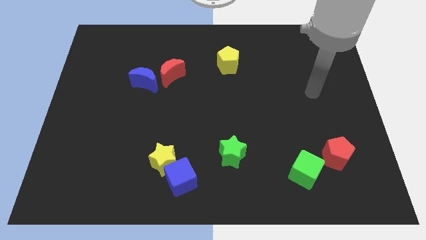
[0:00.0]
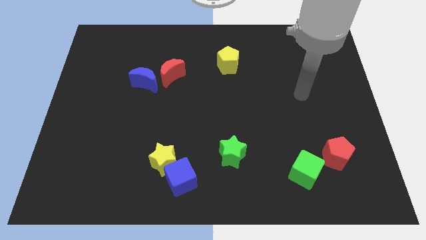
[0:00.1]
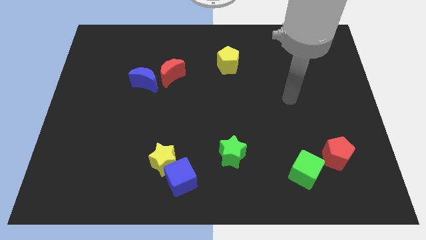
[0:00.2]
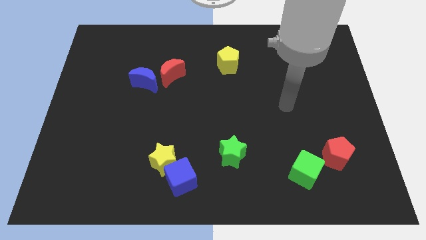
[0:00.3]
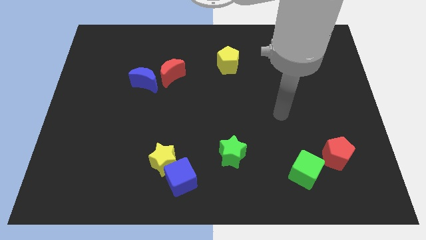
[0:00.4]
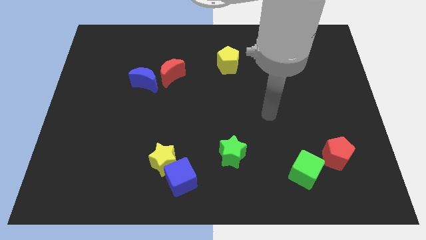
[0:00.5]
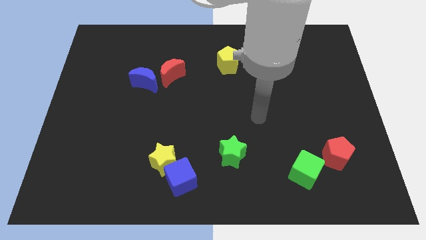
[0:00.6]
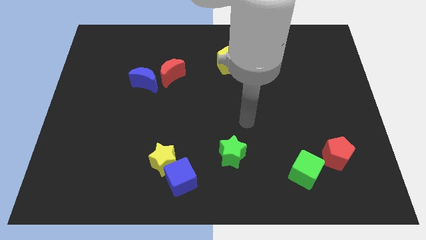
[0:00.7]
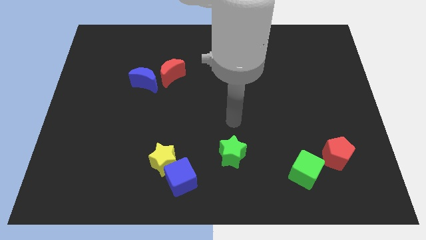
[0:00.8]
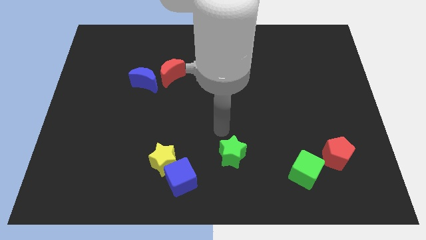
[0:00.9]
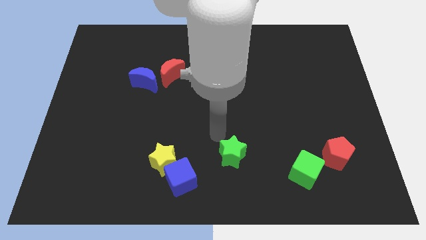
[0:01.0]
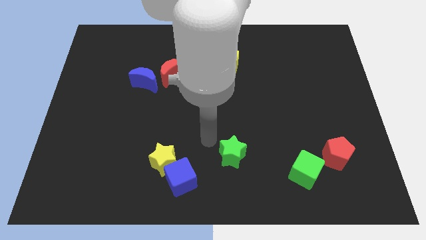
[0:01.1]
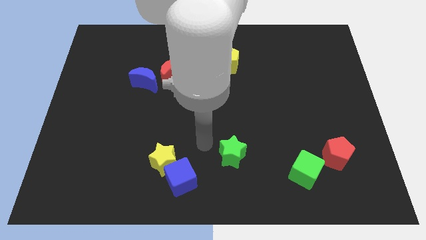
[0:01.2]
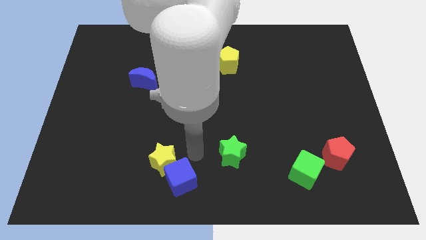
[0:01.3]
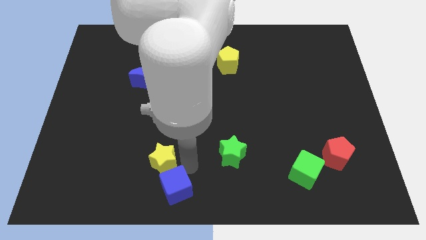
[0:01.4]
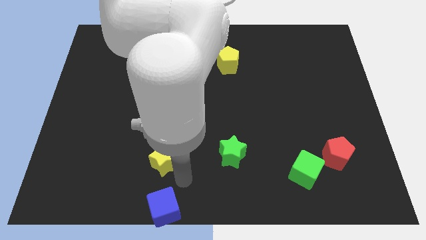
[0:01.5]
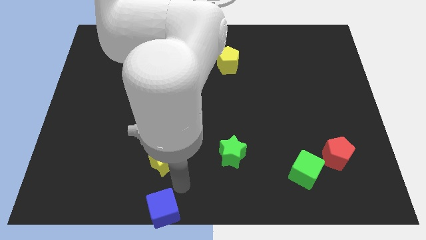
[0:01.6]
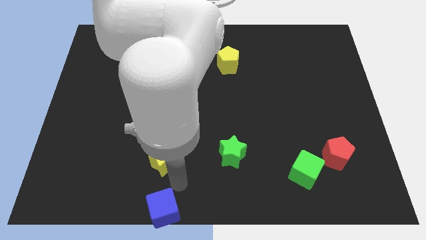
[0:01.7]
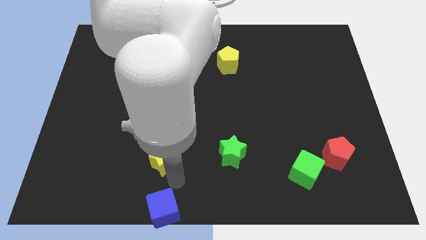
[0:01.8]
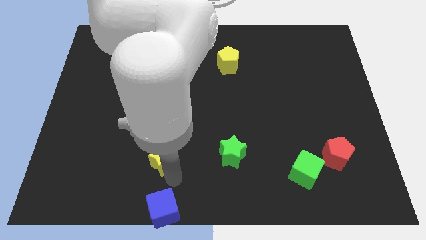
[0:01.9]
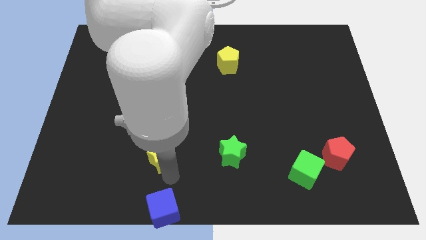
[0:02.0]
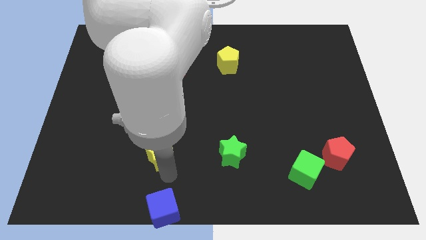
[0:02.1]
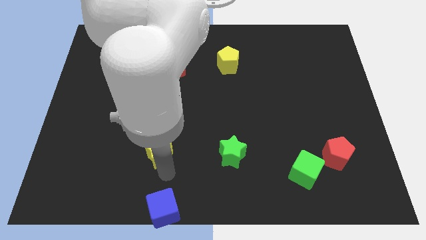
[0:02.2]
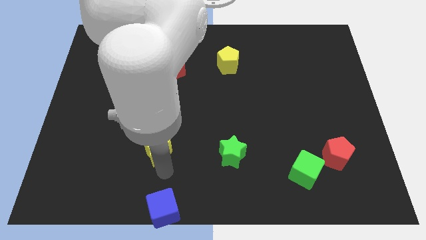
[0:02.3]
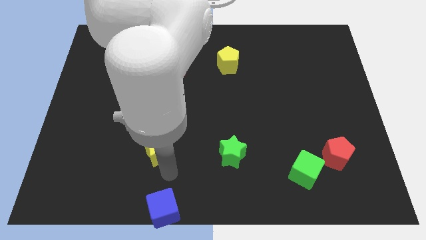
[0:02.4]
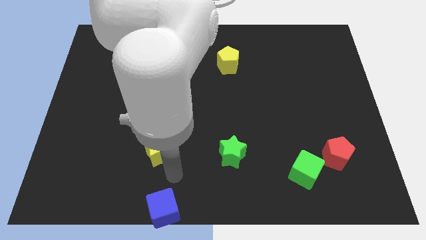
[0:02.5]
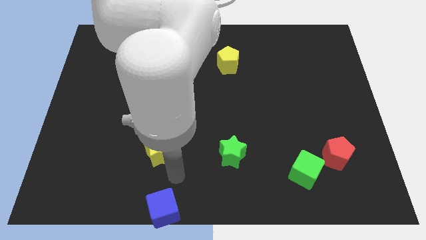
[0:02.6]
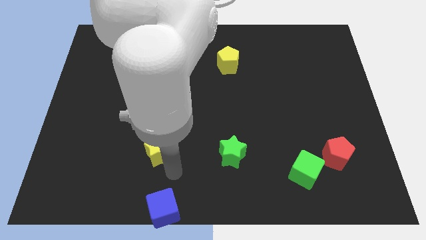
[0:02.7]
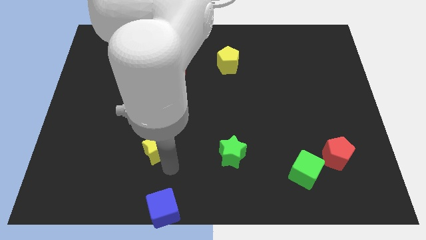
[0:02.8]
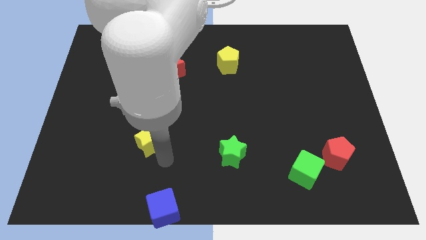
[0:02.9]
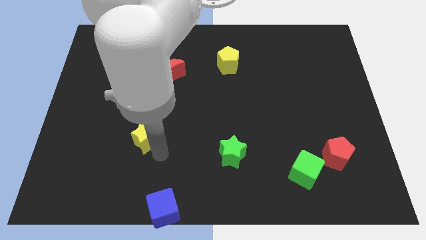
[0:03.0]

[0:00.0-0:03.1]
push the yellow star diagonally upwards and left a bit

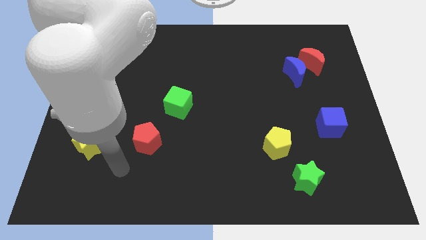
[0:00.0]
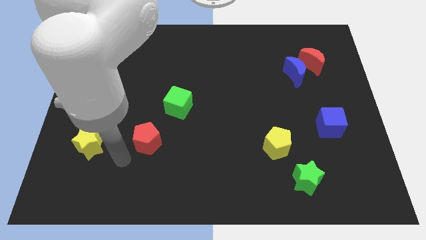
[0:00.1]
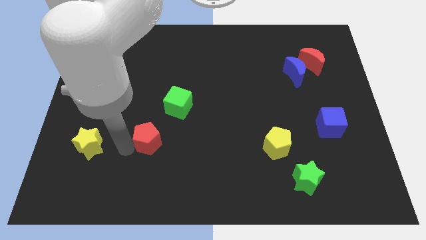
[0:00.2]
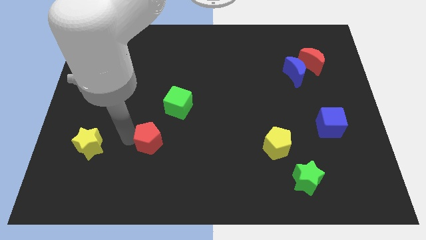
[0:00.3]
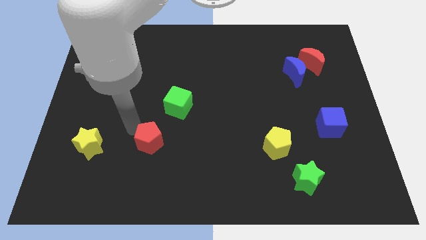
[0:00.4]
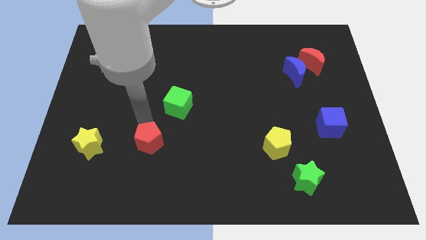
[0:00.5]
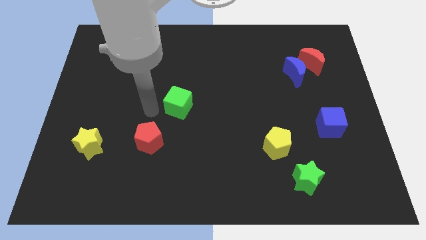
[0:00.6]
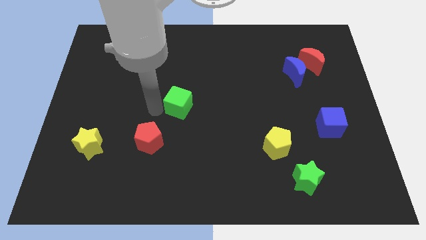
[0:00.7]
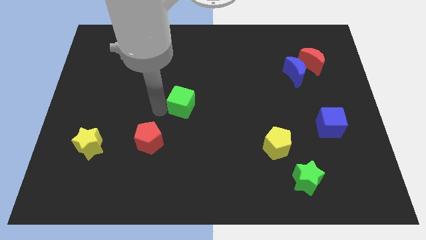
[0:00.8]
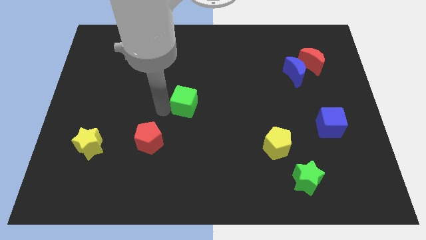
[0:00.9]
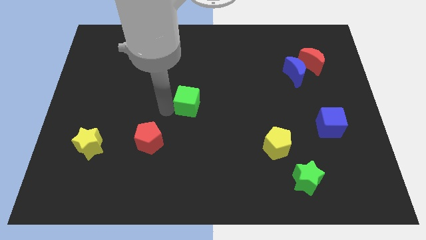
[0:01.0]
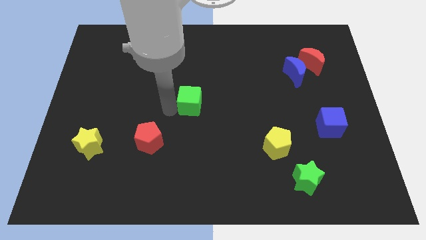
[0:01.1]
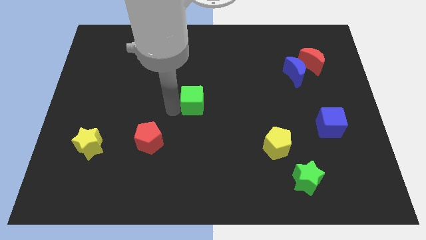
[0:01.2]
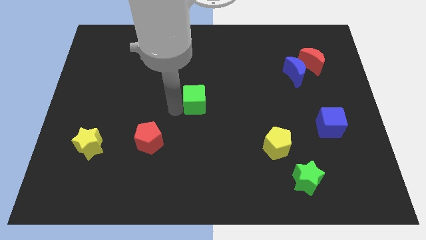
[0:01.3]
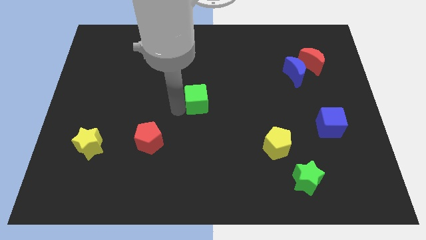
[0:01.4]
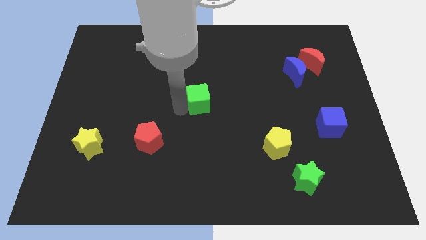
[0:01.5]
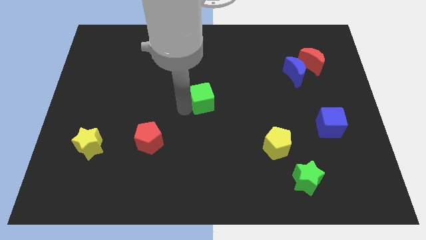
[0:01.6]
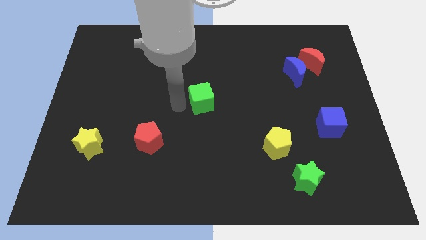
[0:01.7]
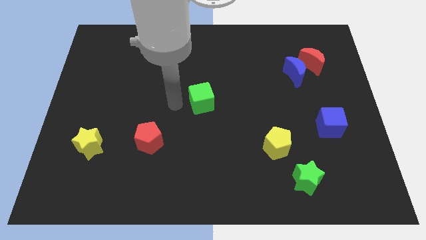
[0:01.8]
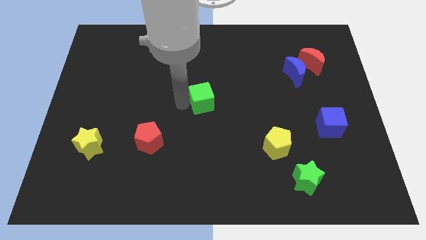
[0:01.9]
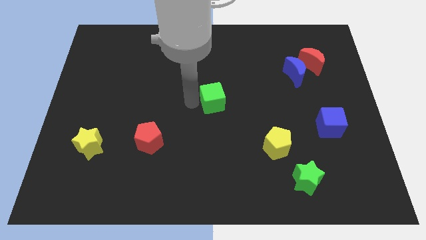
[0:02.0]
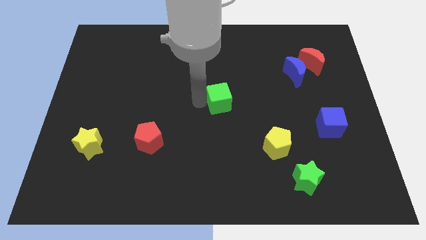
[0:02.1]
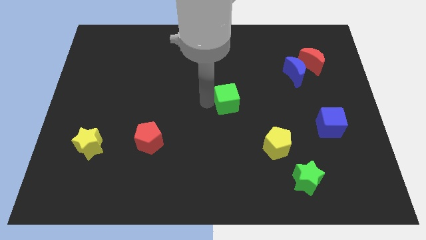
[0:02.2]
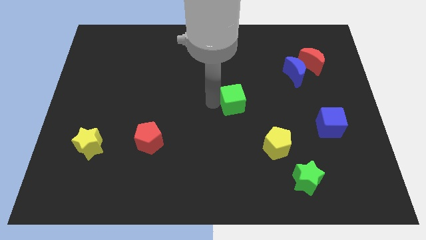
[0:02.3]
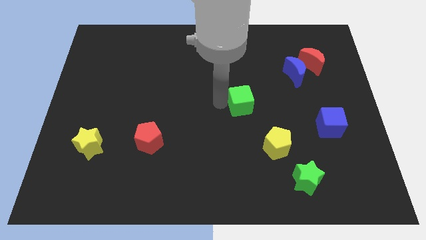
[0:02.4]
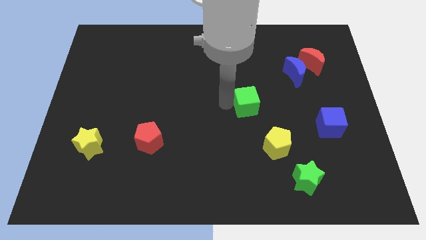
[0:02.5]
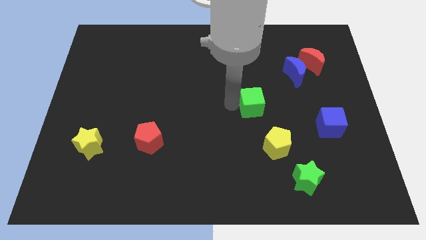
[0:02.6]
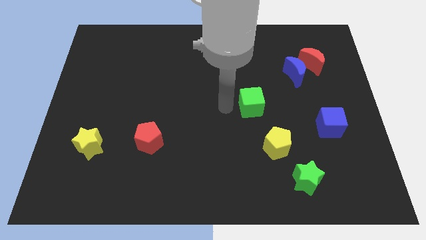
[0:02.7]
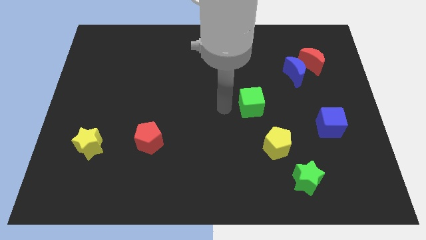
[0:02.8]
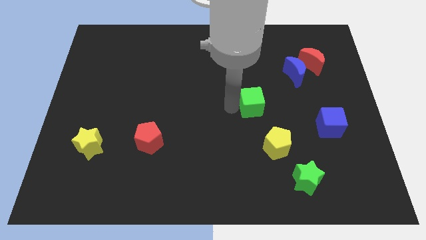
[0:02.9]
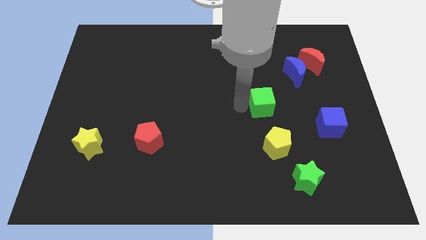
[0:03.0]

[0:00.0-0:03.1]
slide the green cube right

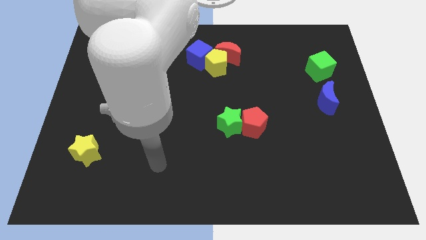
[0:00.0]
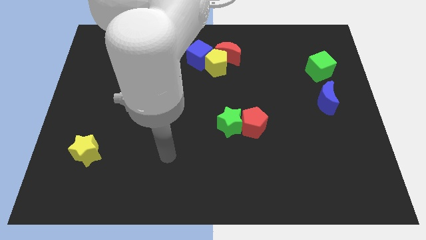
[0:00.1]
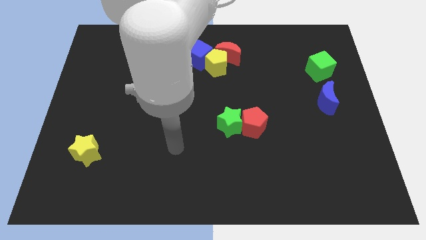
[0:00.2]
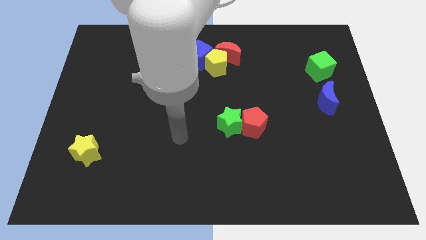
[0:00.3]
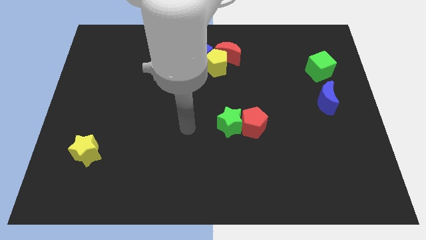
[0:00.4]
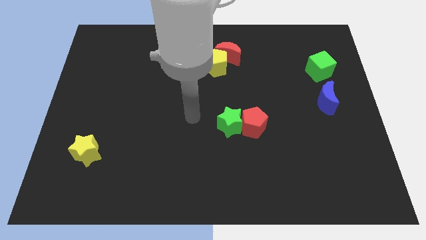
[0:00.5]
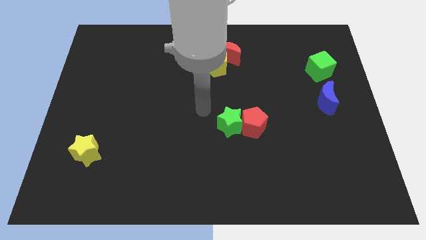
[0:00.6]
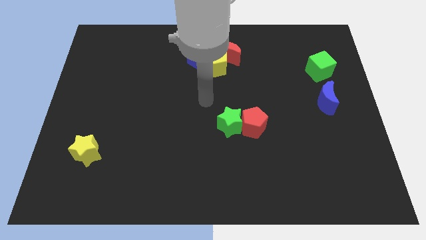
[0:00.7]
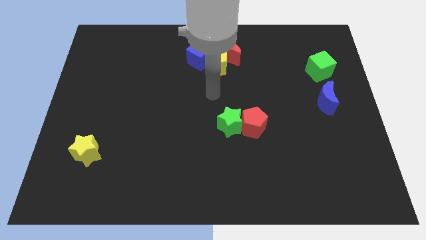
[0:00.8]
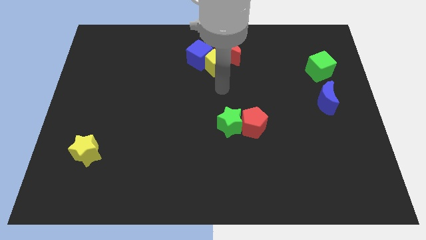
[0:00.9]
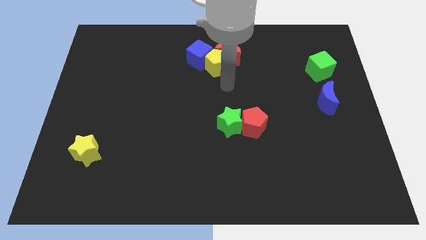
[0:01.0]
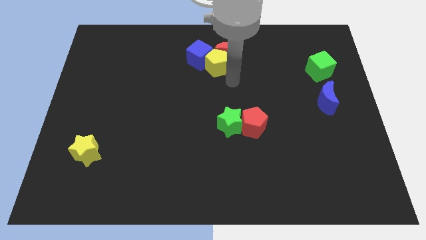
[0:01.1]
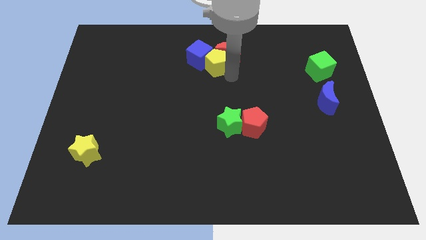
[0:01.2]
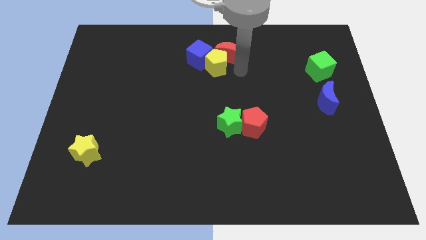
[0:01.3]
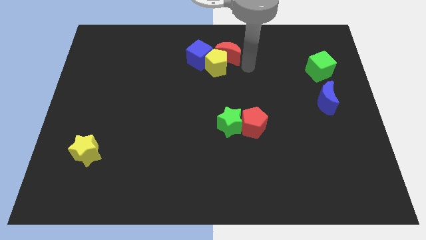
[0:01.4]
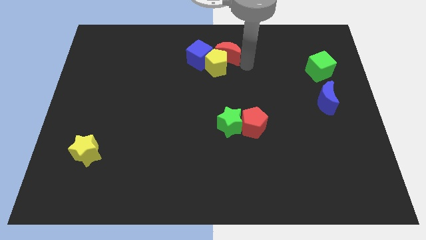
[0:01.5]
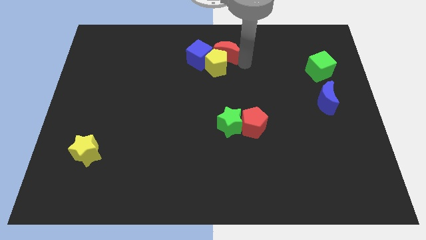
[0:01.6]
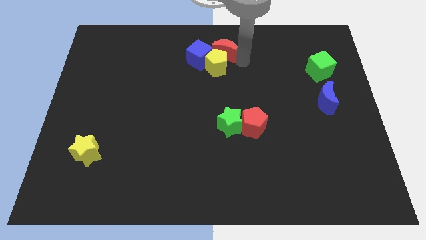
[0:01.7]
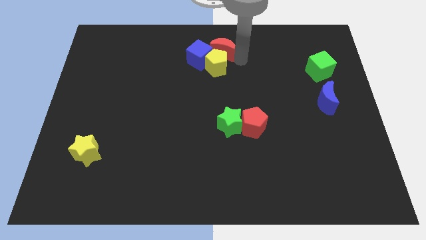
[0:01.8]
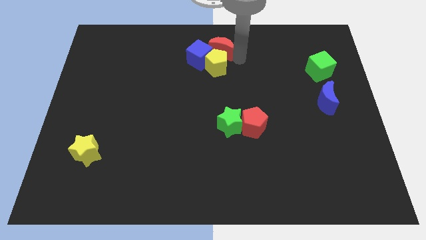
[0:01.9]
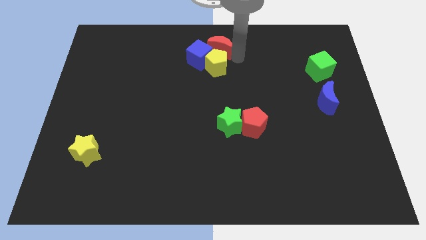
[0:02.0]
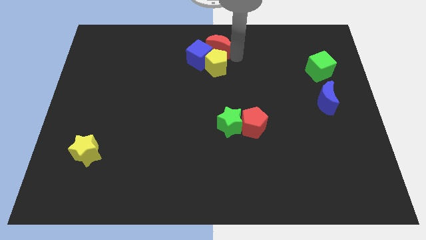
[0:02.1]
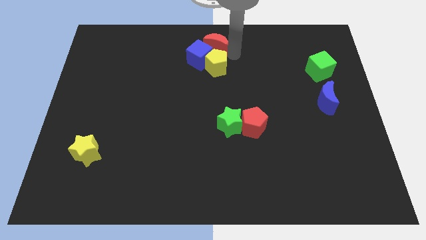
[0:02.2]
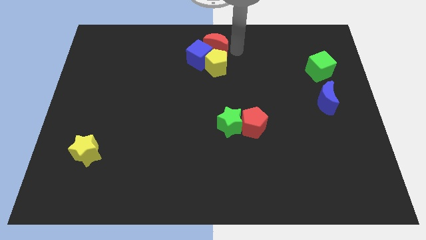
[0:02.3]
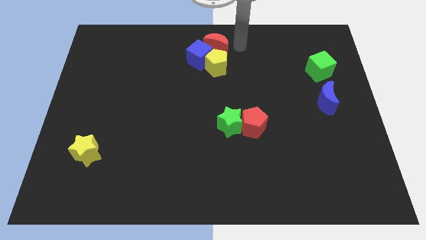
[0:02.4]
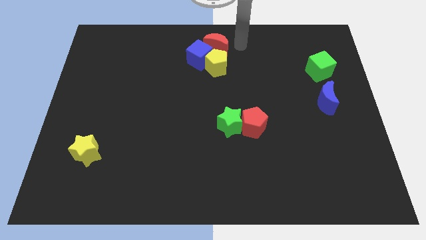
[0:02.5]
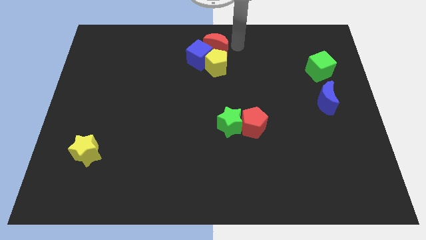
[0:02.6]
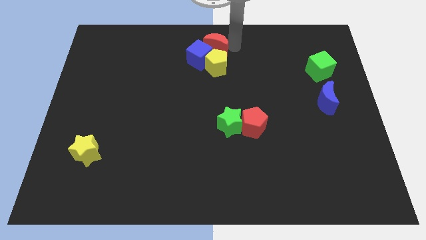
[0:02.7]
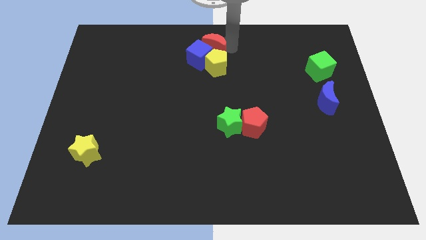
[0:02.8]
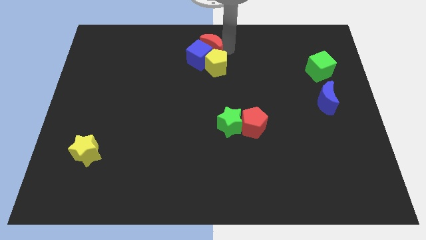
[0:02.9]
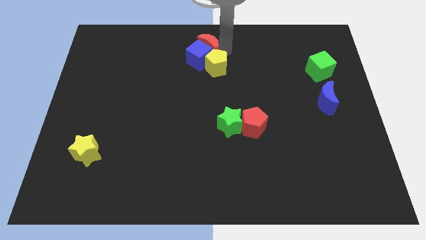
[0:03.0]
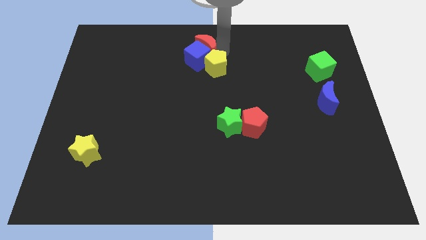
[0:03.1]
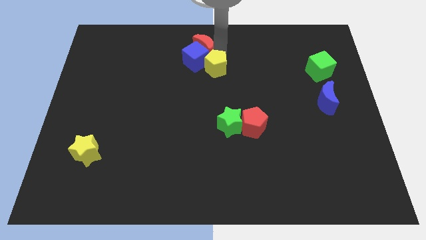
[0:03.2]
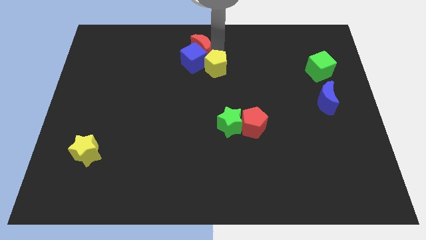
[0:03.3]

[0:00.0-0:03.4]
slide the red moon to the left somewhat
